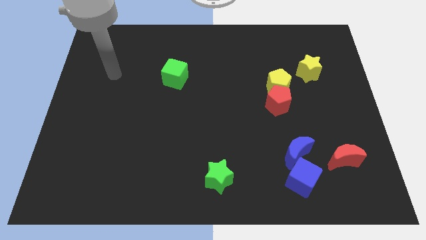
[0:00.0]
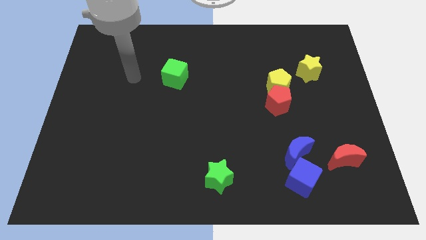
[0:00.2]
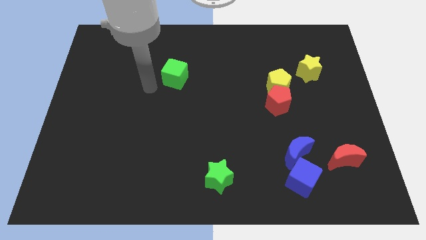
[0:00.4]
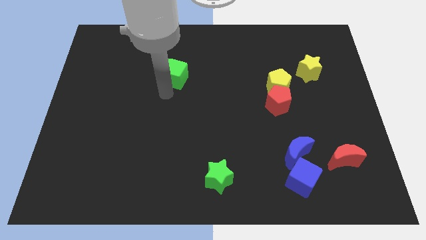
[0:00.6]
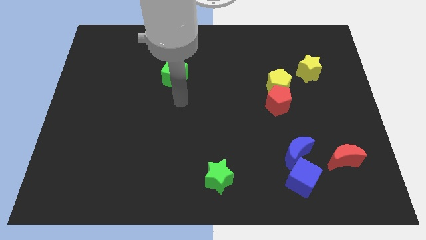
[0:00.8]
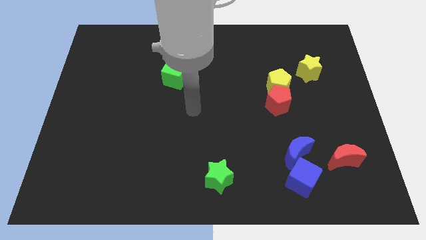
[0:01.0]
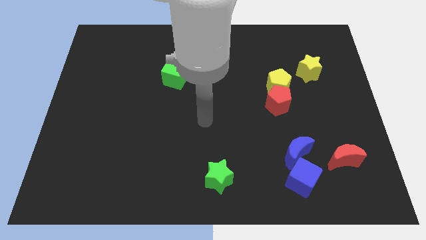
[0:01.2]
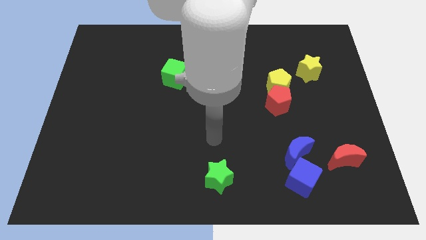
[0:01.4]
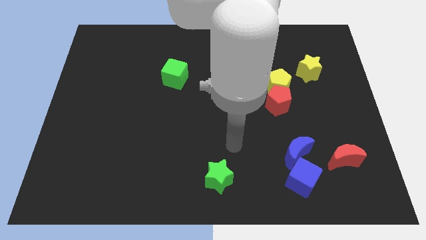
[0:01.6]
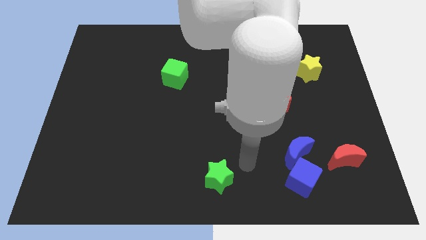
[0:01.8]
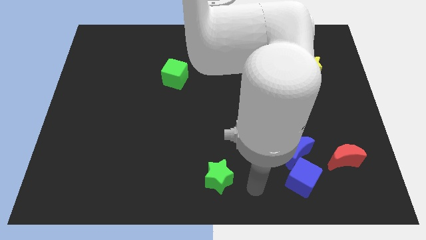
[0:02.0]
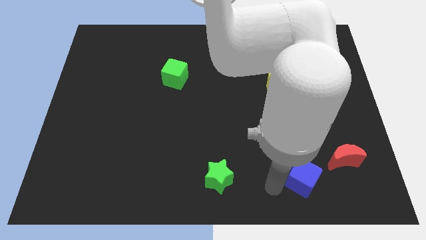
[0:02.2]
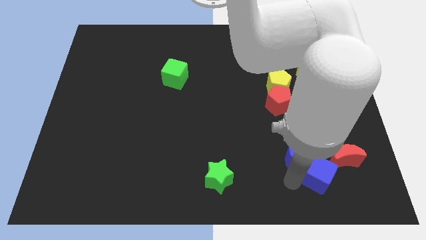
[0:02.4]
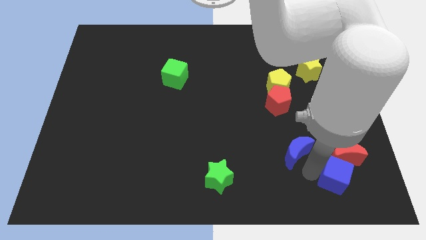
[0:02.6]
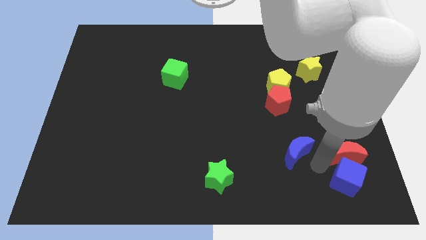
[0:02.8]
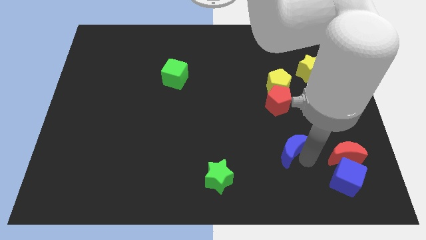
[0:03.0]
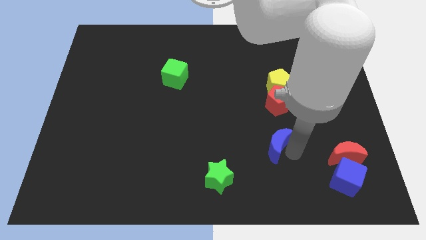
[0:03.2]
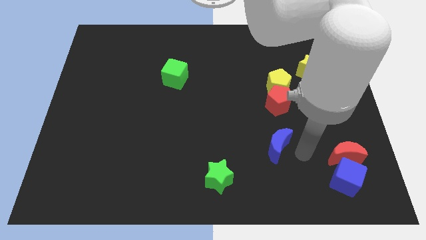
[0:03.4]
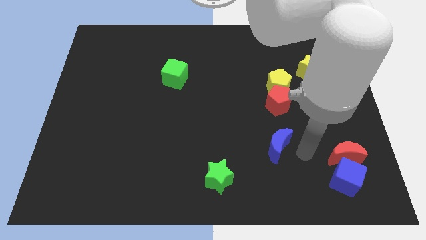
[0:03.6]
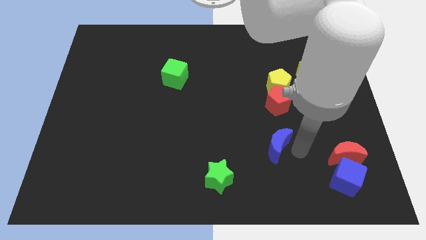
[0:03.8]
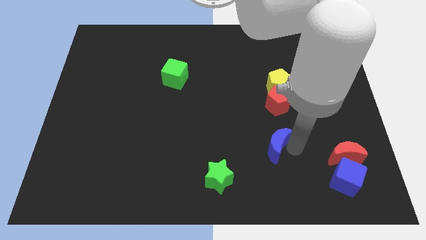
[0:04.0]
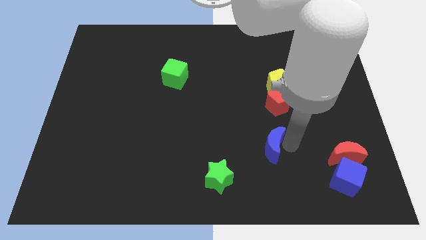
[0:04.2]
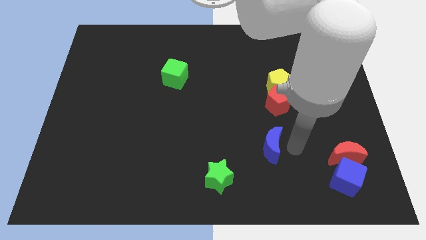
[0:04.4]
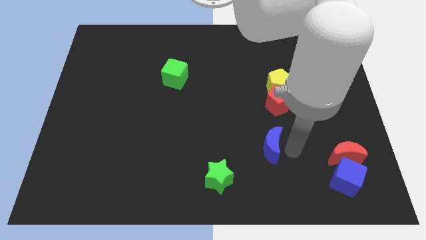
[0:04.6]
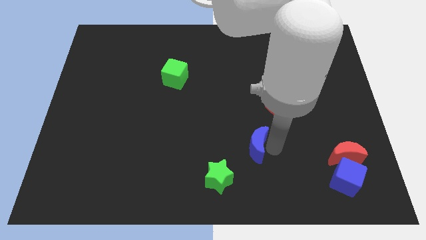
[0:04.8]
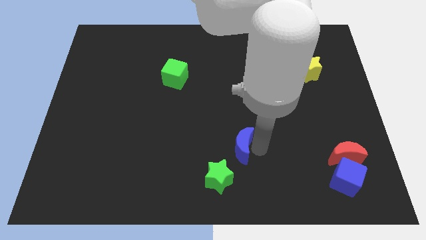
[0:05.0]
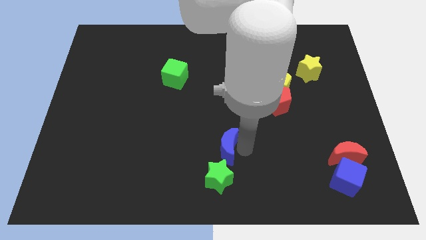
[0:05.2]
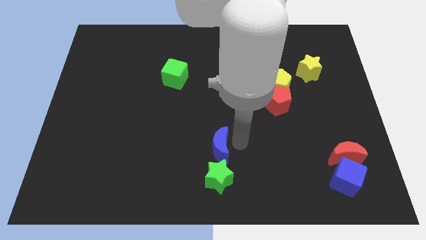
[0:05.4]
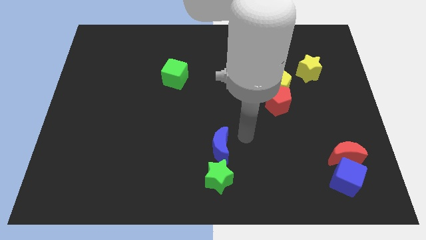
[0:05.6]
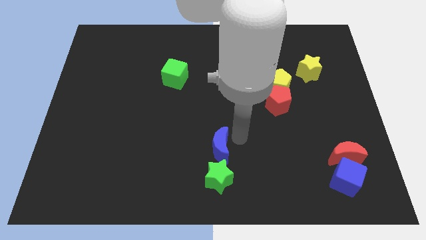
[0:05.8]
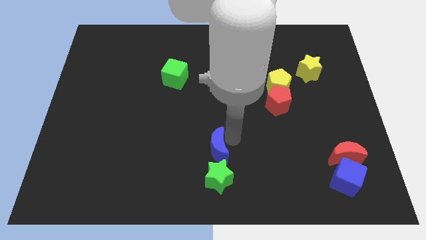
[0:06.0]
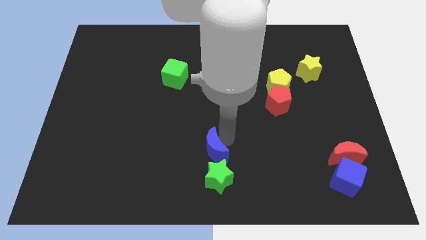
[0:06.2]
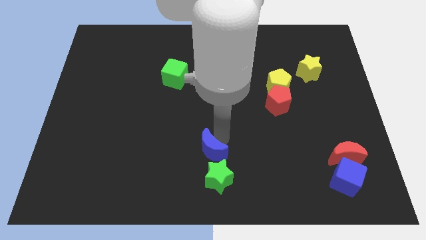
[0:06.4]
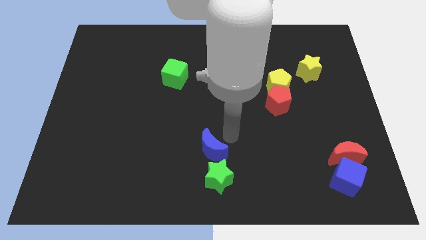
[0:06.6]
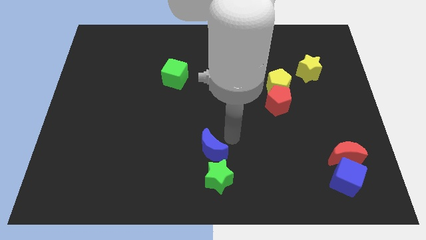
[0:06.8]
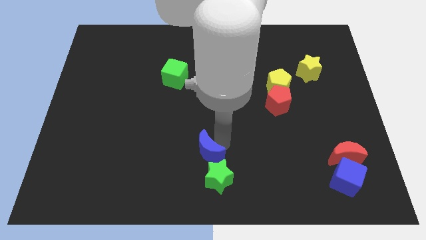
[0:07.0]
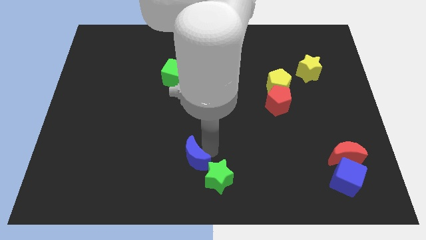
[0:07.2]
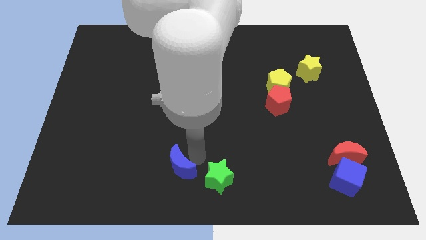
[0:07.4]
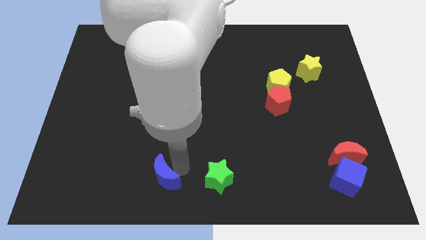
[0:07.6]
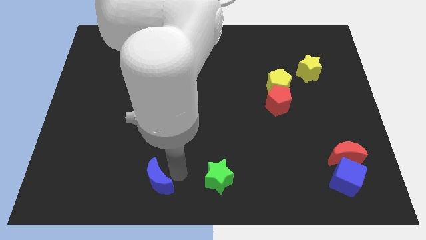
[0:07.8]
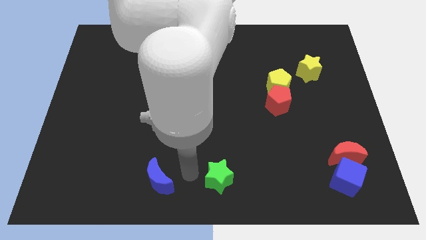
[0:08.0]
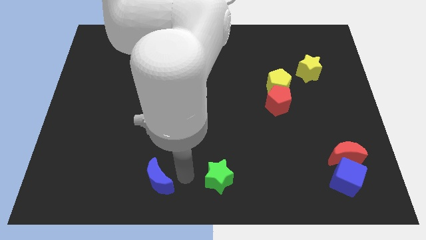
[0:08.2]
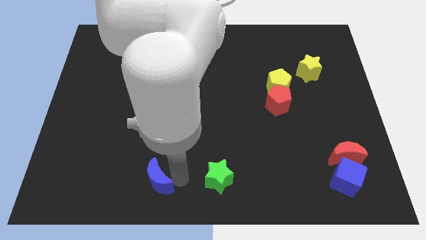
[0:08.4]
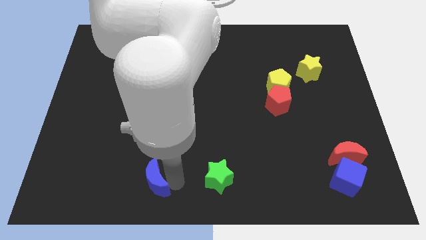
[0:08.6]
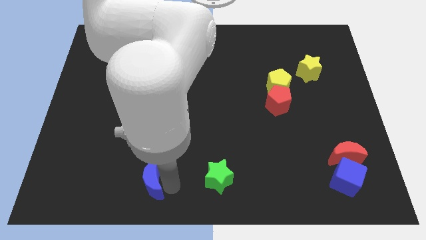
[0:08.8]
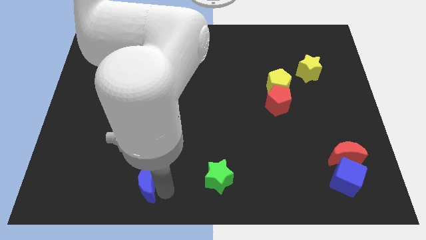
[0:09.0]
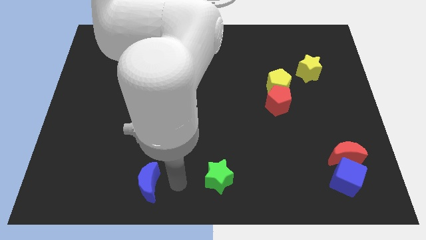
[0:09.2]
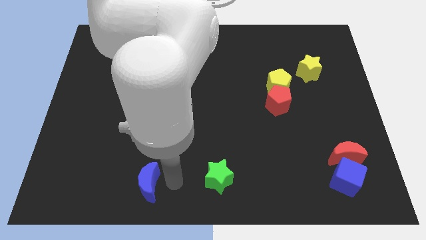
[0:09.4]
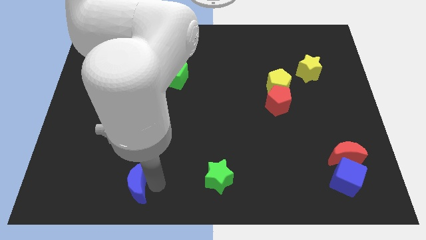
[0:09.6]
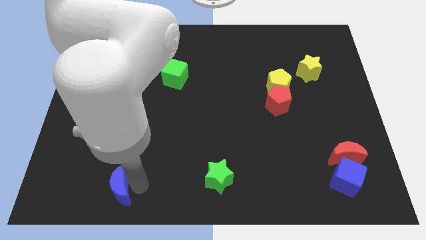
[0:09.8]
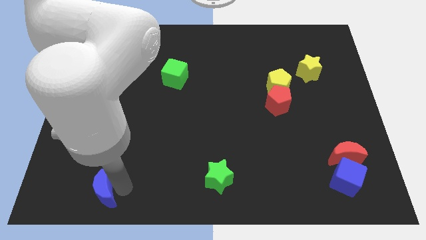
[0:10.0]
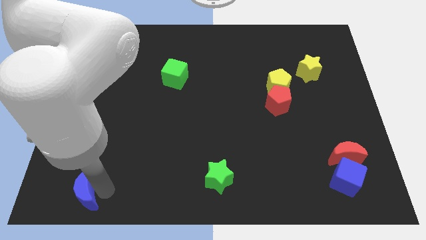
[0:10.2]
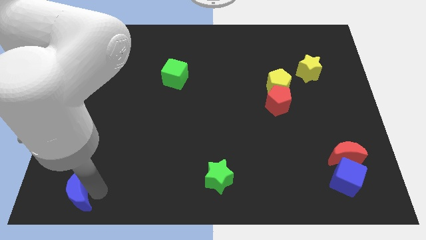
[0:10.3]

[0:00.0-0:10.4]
put the blue moon to the bottom left

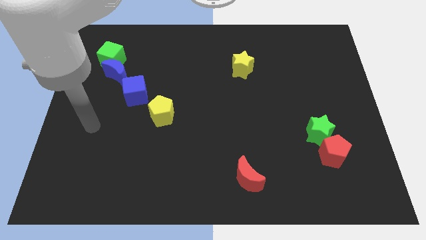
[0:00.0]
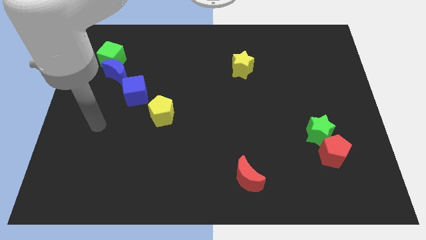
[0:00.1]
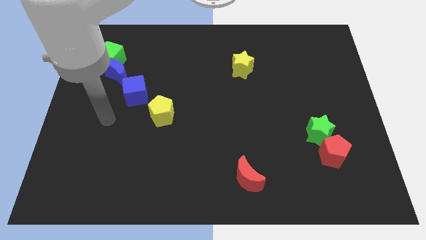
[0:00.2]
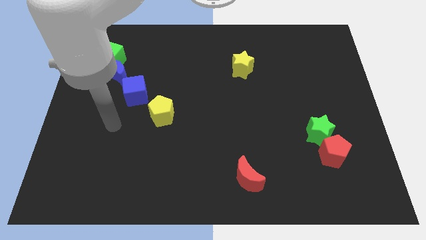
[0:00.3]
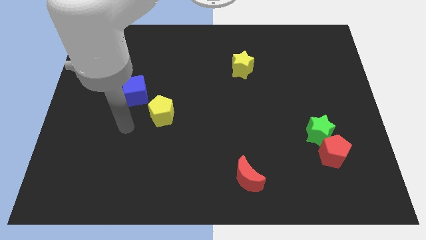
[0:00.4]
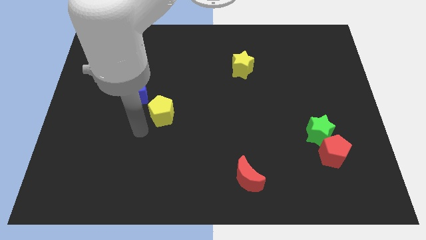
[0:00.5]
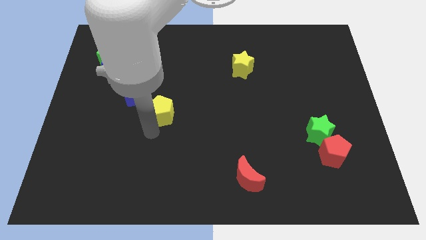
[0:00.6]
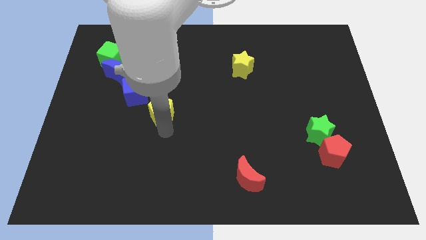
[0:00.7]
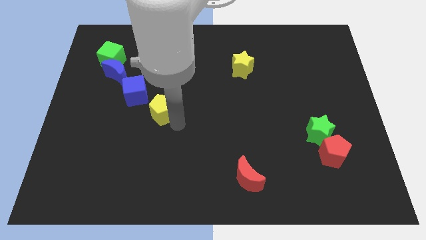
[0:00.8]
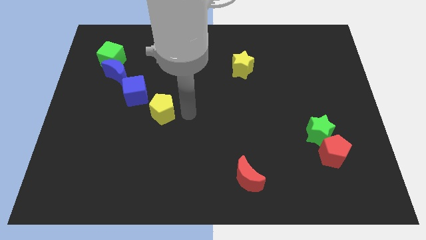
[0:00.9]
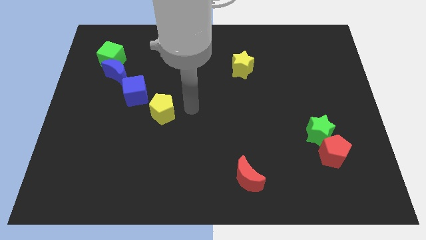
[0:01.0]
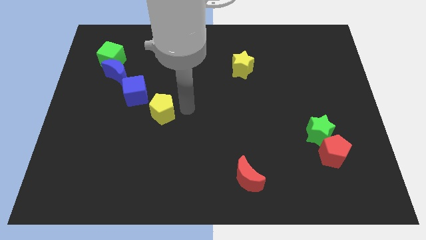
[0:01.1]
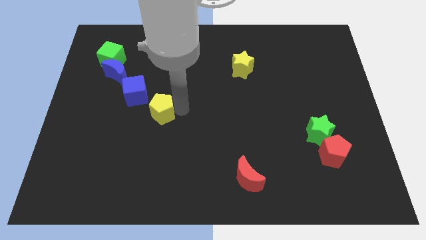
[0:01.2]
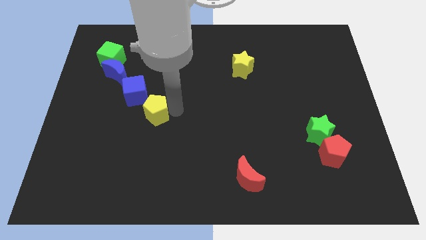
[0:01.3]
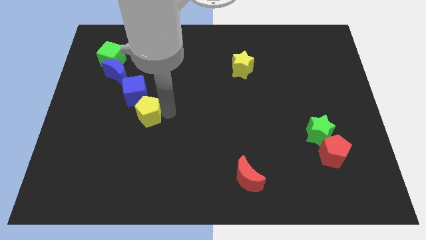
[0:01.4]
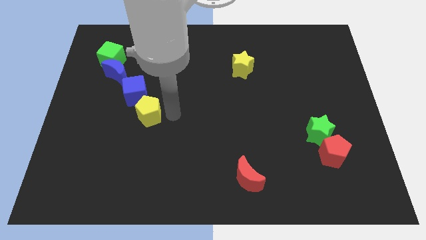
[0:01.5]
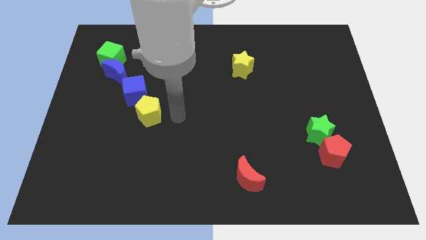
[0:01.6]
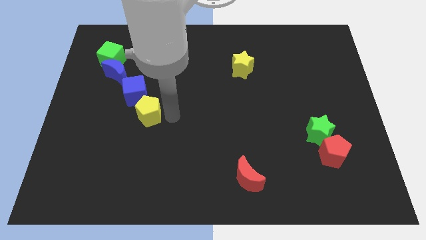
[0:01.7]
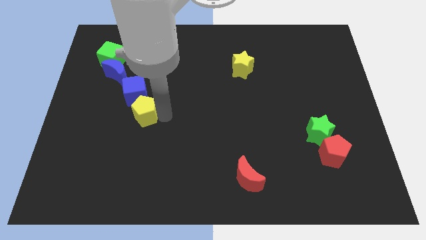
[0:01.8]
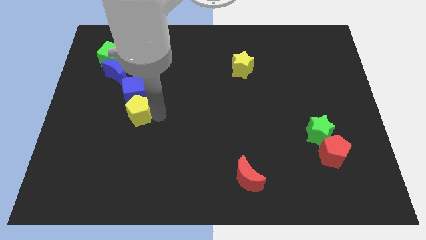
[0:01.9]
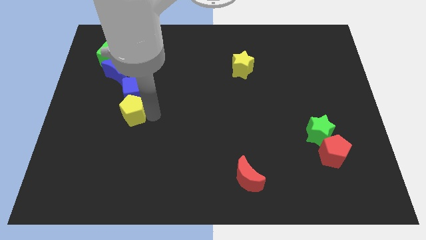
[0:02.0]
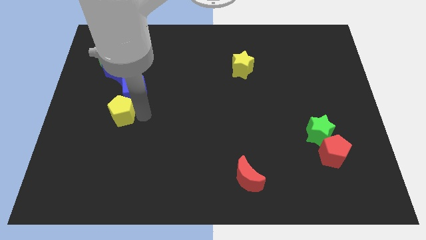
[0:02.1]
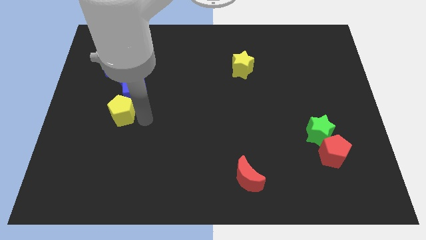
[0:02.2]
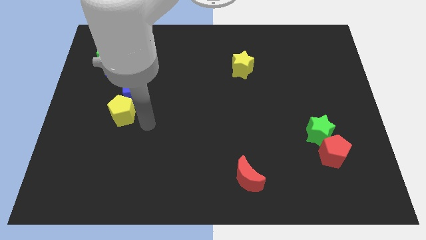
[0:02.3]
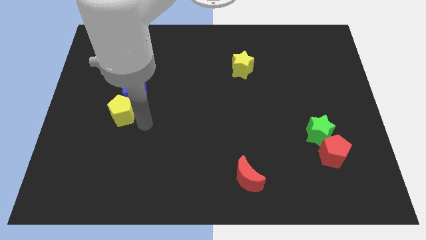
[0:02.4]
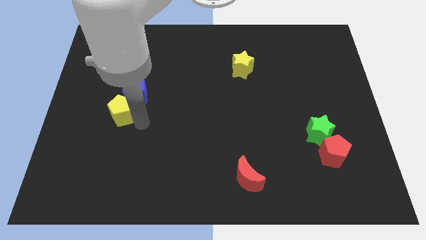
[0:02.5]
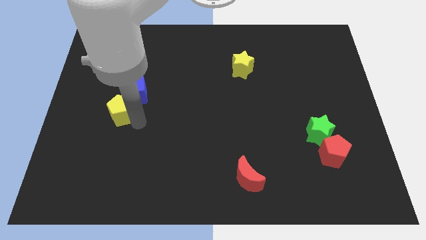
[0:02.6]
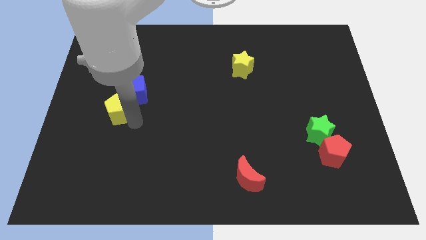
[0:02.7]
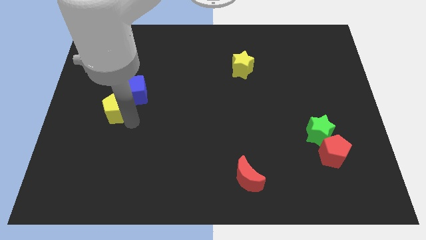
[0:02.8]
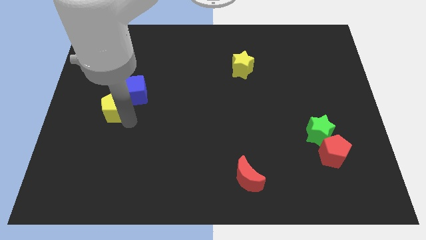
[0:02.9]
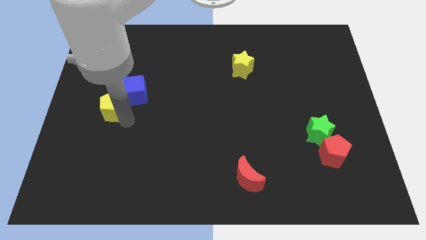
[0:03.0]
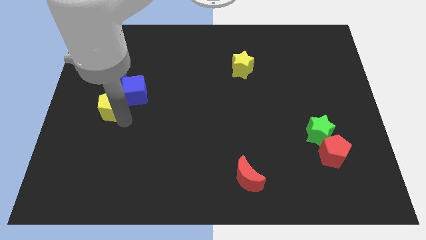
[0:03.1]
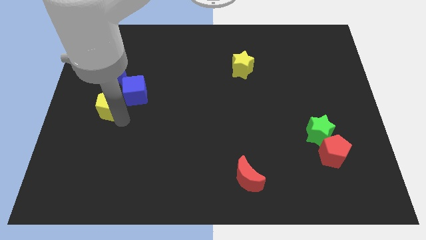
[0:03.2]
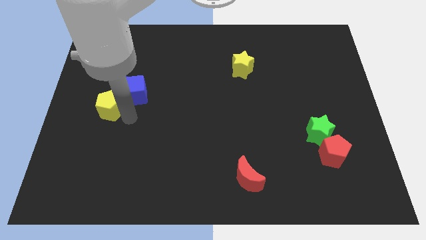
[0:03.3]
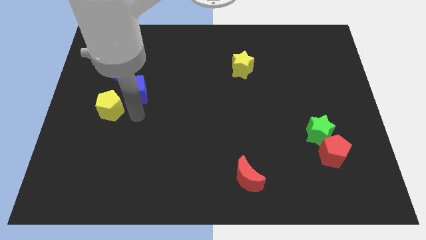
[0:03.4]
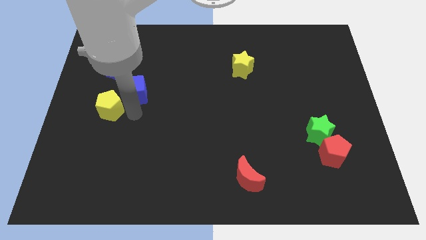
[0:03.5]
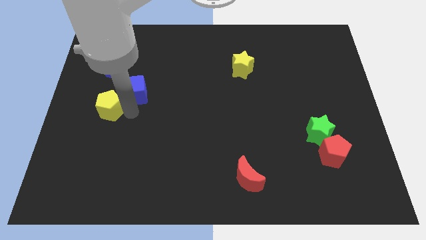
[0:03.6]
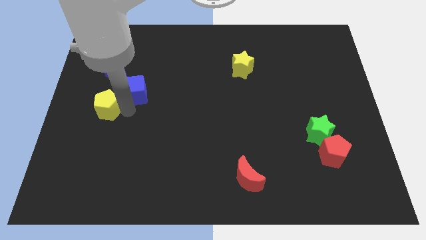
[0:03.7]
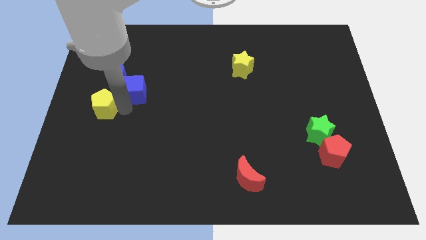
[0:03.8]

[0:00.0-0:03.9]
push the yellow pentagon to the center left
